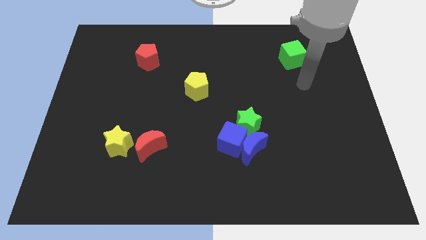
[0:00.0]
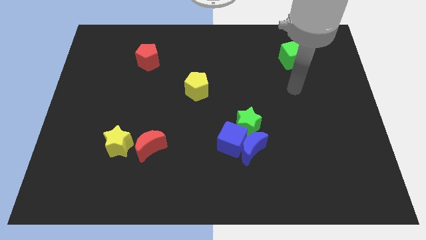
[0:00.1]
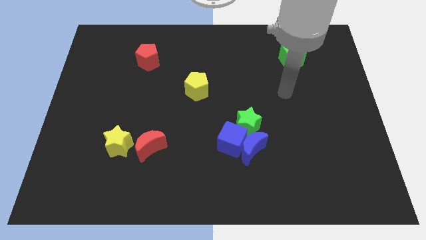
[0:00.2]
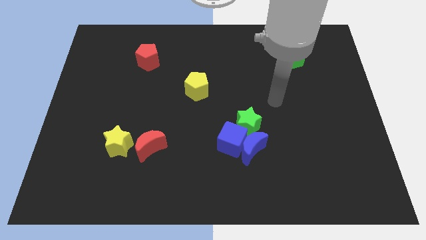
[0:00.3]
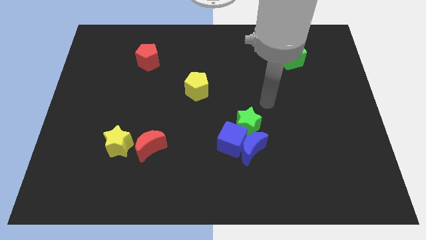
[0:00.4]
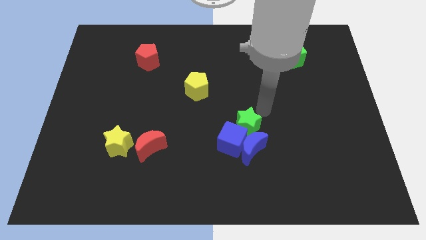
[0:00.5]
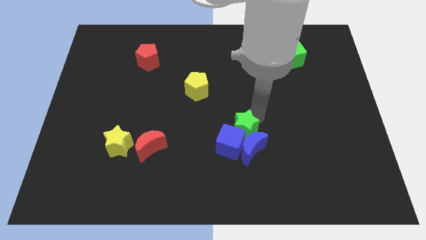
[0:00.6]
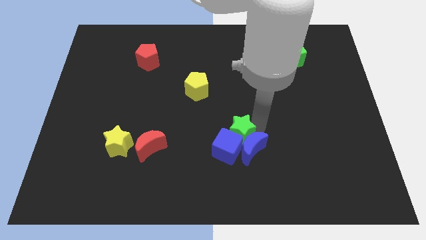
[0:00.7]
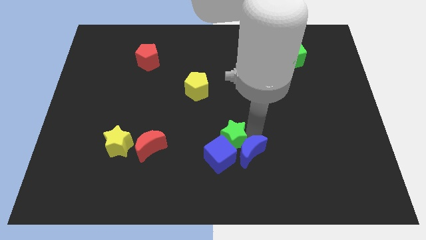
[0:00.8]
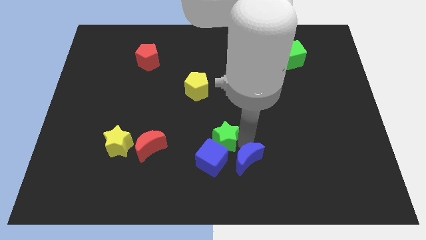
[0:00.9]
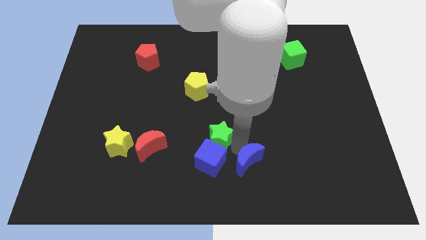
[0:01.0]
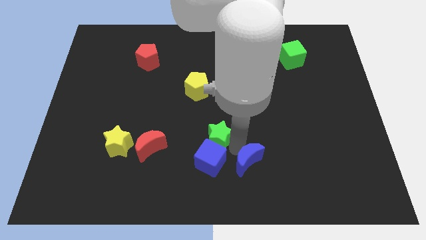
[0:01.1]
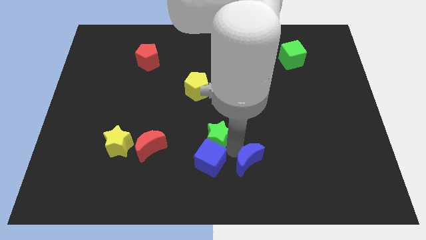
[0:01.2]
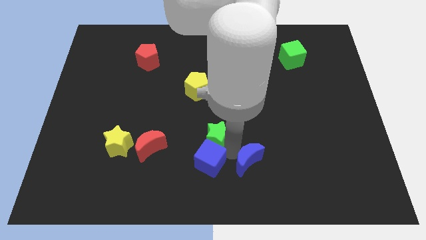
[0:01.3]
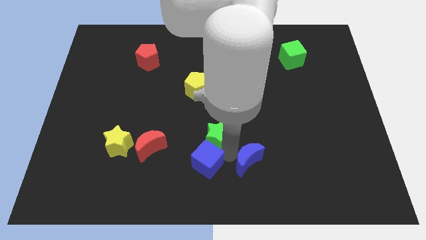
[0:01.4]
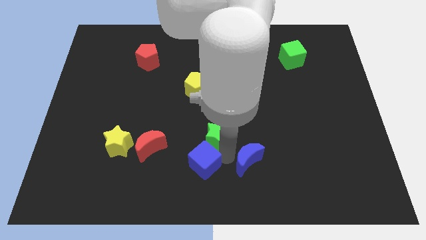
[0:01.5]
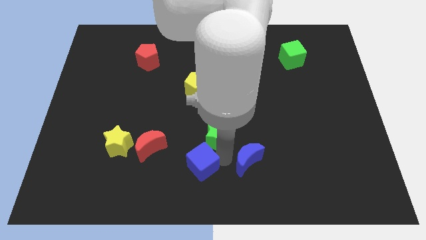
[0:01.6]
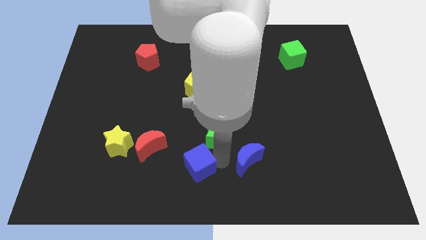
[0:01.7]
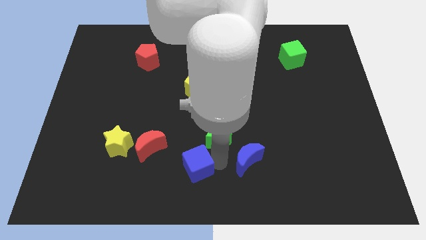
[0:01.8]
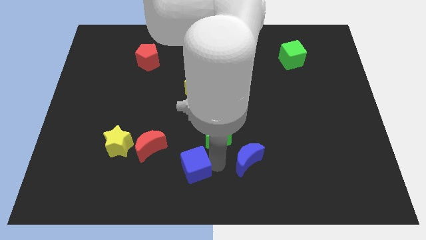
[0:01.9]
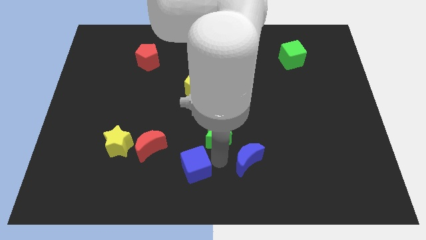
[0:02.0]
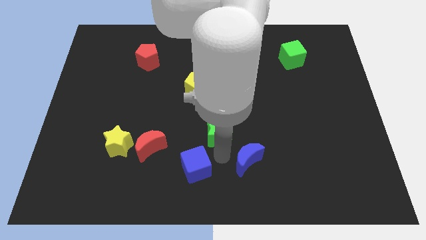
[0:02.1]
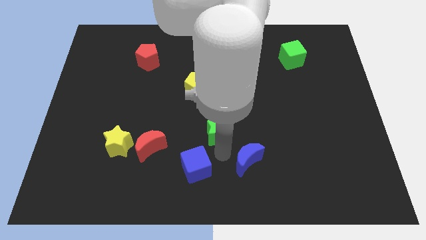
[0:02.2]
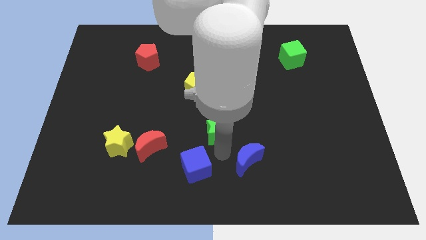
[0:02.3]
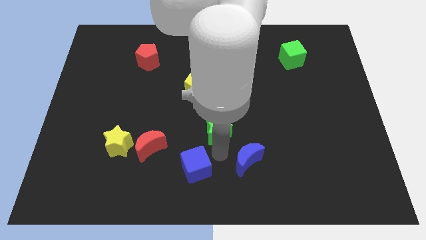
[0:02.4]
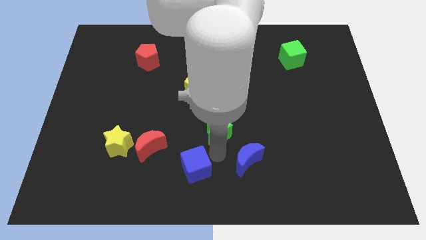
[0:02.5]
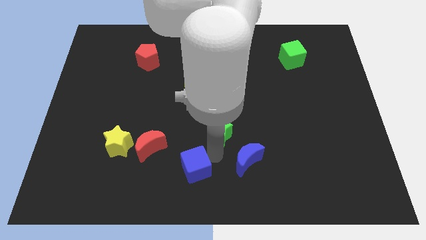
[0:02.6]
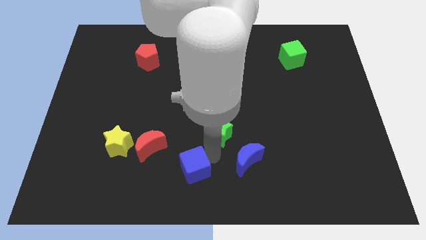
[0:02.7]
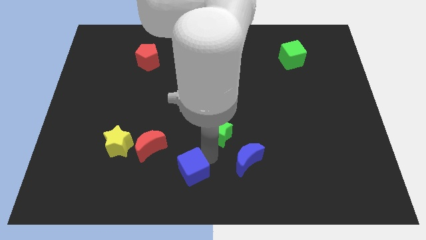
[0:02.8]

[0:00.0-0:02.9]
pull the blue cube apart from the blue moon and green star

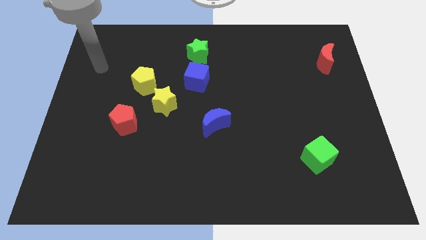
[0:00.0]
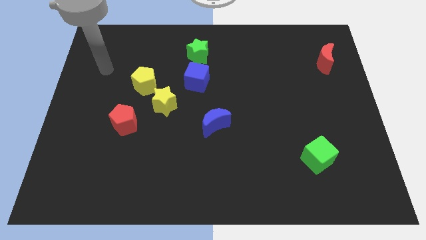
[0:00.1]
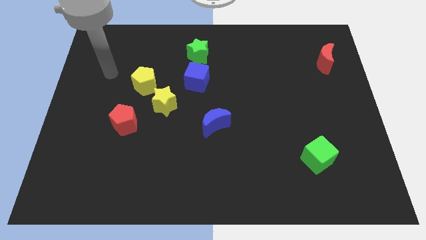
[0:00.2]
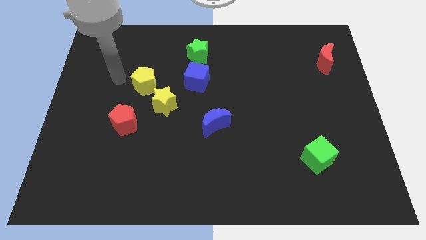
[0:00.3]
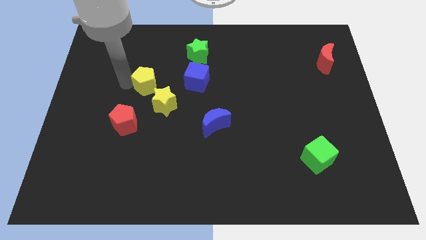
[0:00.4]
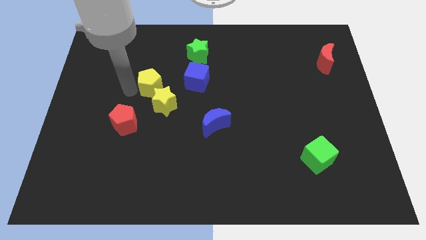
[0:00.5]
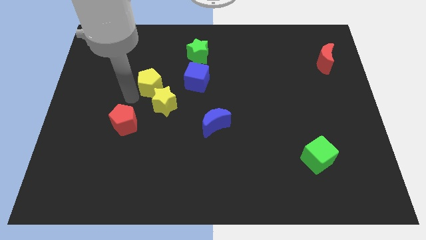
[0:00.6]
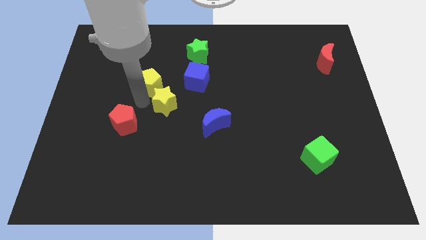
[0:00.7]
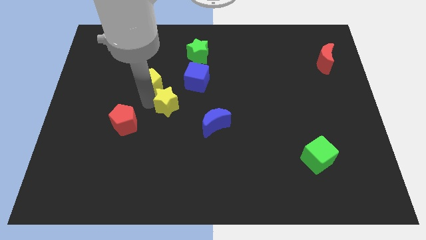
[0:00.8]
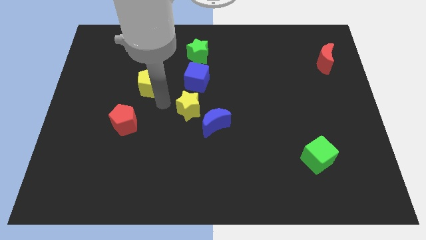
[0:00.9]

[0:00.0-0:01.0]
pull the yellow pentagon apart from the yellow star

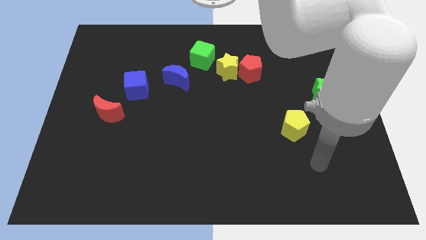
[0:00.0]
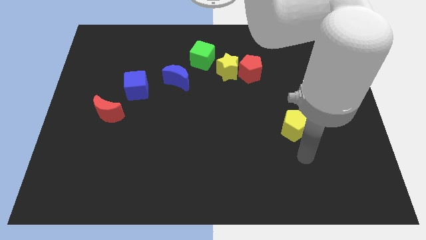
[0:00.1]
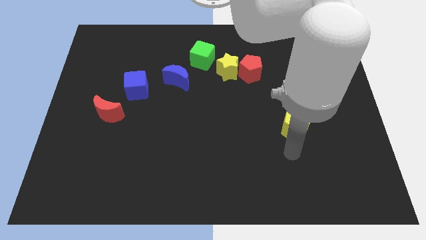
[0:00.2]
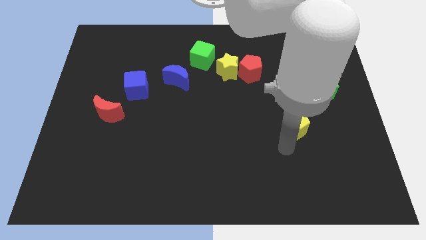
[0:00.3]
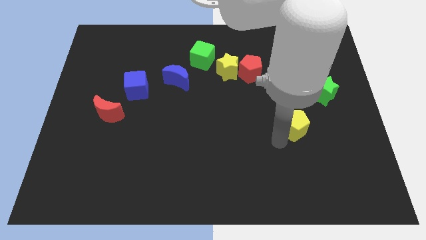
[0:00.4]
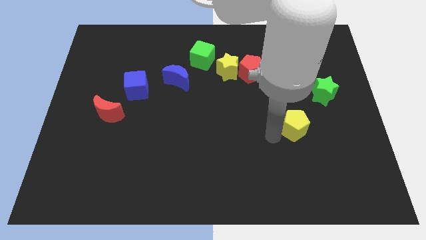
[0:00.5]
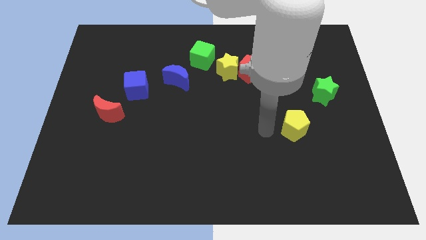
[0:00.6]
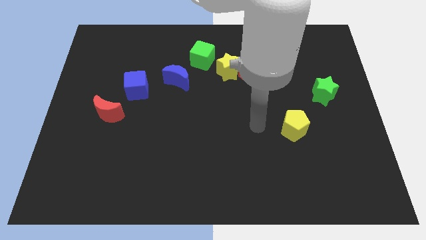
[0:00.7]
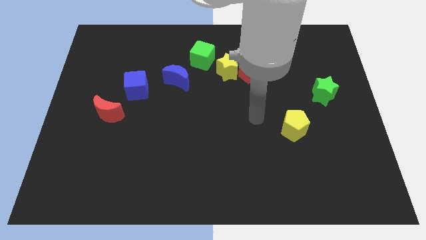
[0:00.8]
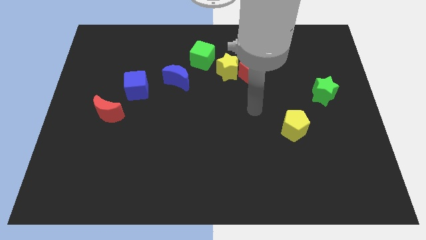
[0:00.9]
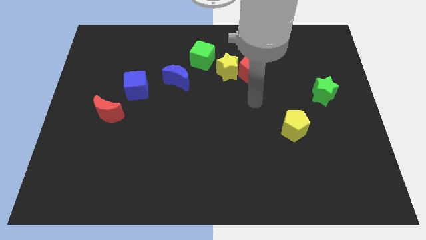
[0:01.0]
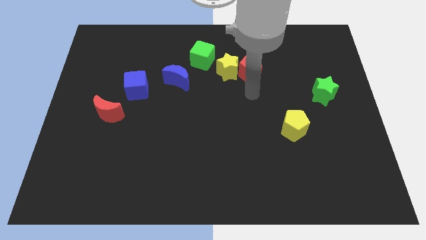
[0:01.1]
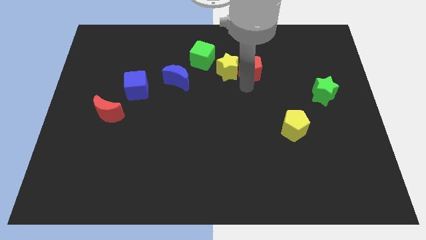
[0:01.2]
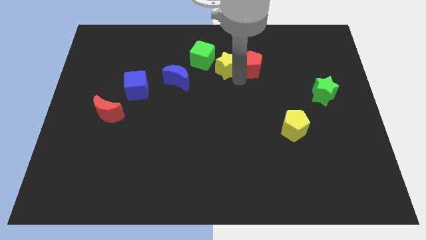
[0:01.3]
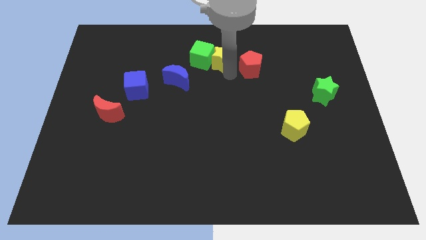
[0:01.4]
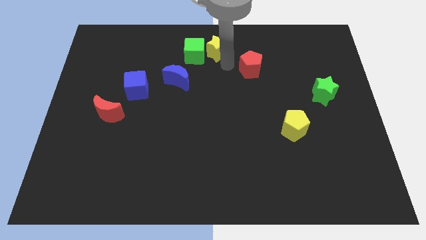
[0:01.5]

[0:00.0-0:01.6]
move the red pentagon away from the yellow star

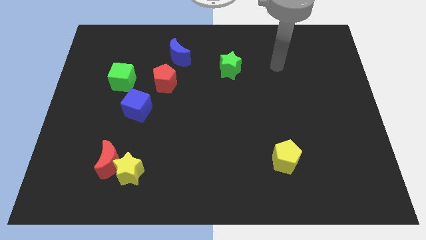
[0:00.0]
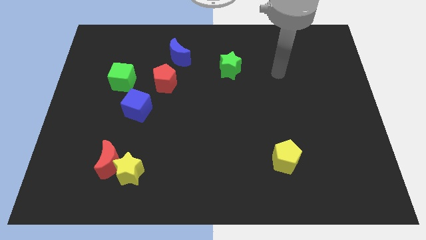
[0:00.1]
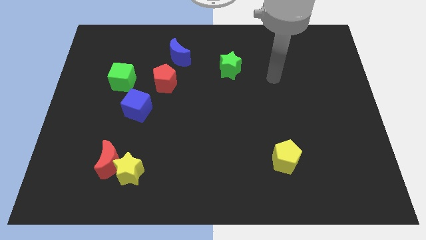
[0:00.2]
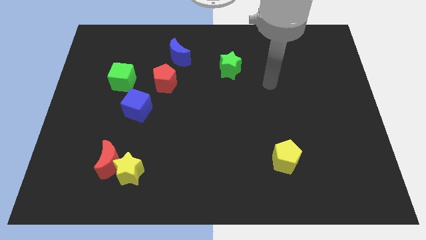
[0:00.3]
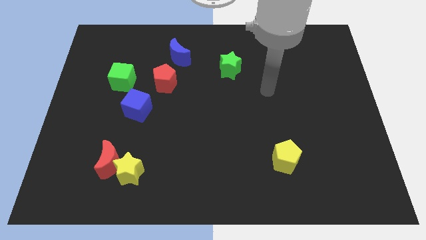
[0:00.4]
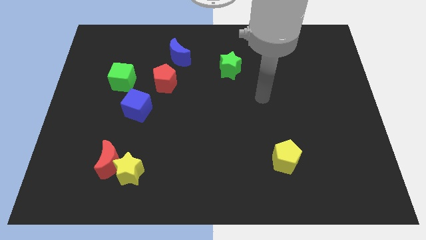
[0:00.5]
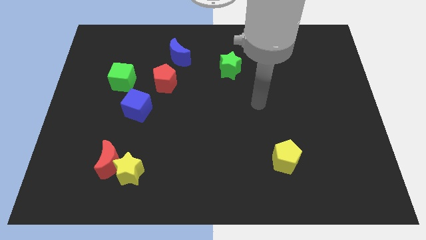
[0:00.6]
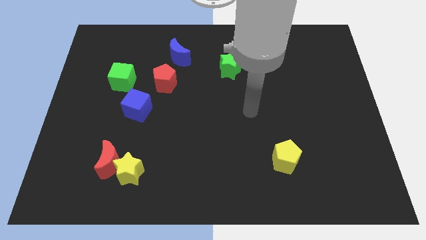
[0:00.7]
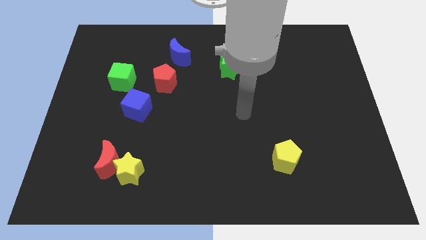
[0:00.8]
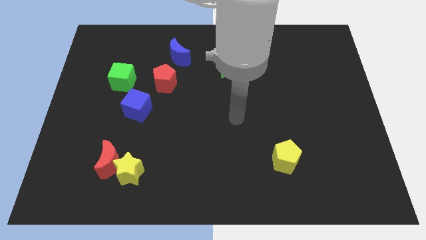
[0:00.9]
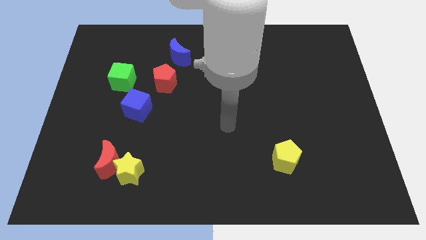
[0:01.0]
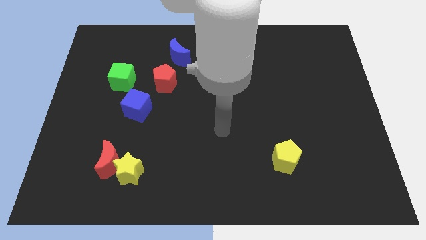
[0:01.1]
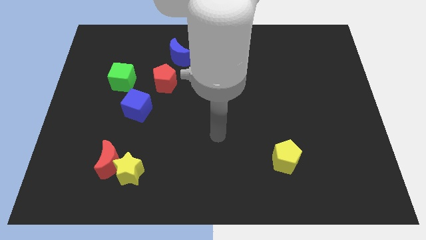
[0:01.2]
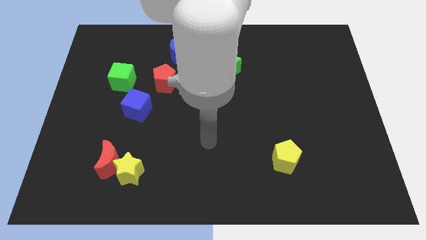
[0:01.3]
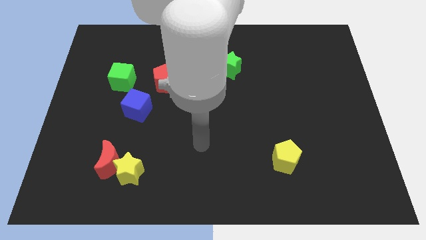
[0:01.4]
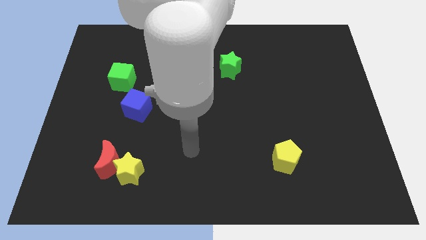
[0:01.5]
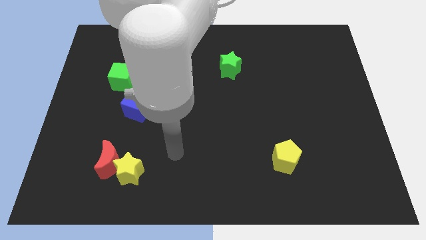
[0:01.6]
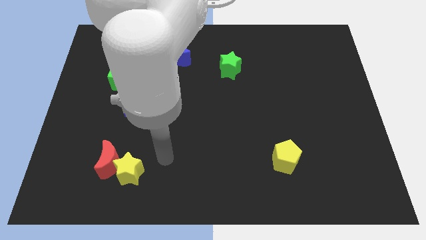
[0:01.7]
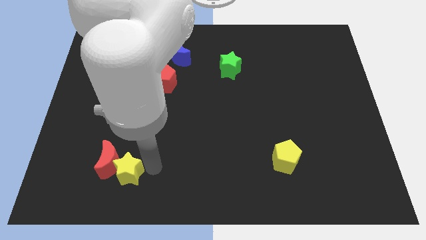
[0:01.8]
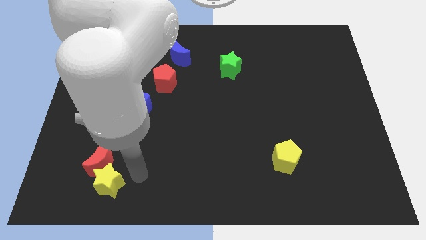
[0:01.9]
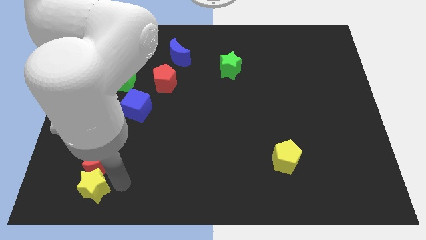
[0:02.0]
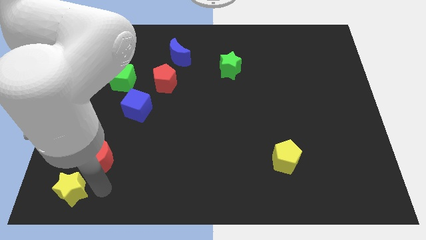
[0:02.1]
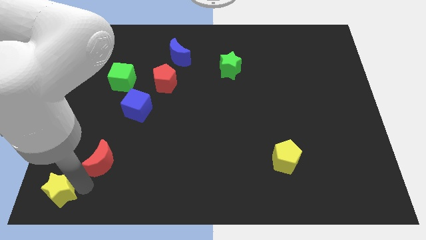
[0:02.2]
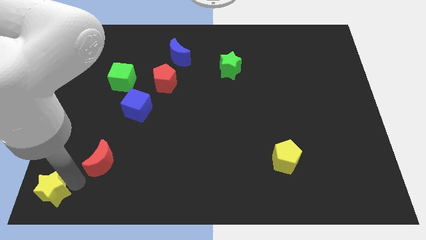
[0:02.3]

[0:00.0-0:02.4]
pull the red moon apart from the yellow star

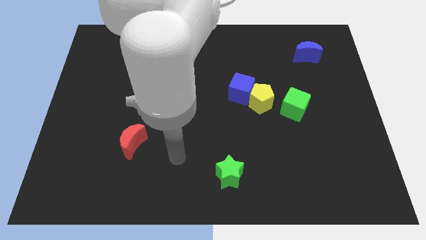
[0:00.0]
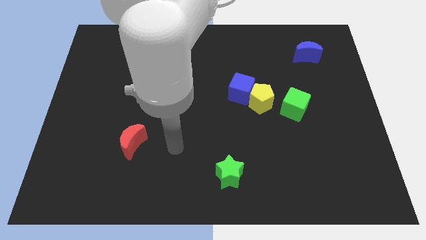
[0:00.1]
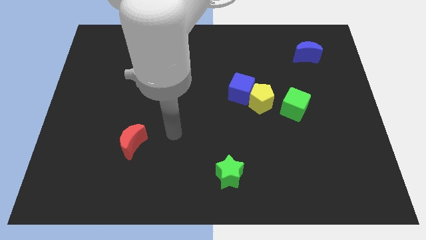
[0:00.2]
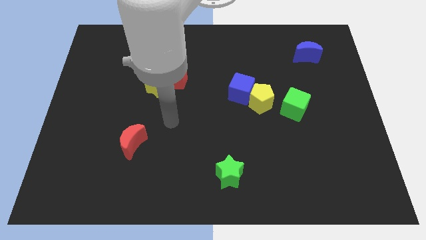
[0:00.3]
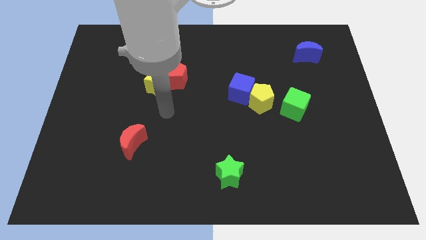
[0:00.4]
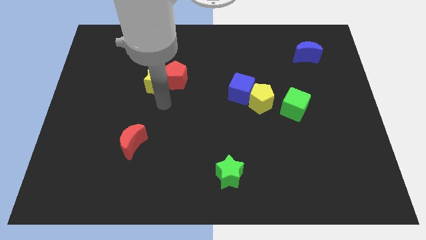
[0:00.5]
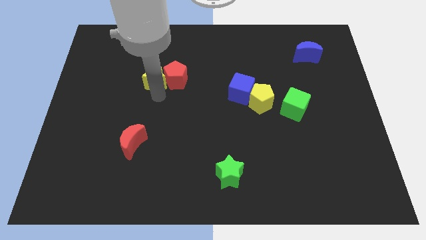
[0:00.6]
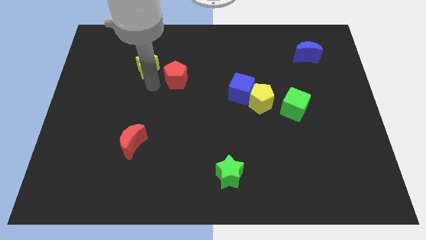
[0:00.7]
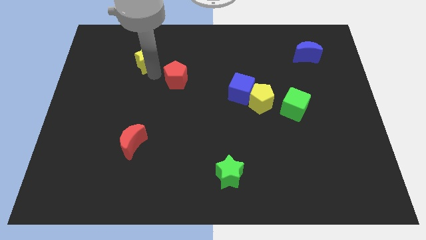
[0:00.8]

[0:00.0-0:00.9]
separate the red pentagon from the yellow star

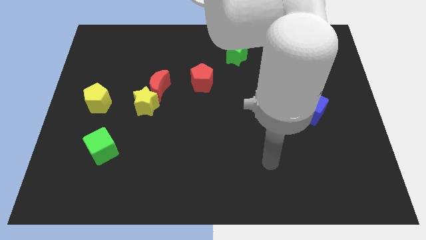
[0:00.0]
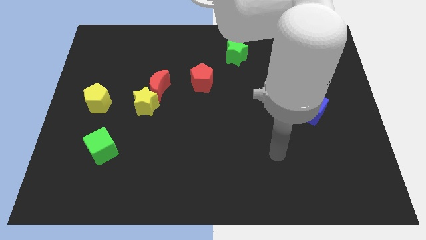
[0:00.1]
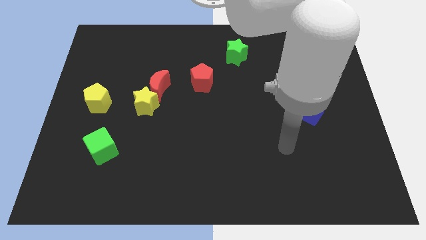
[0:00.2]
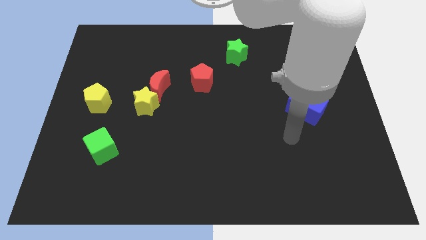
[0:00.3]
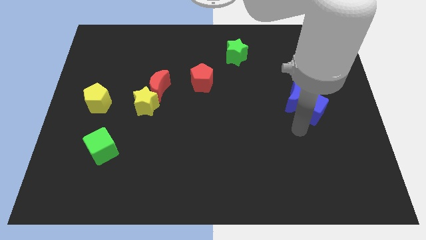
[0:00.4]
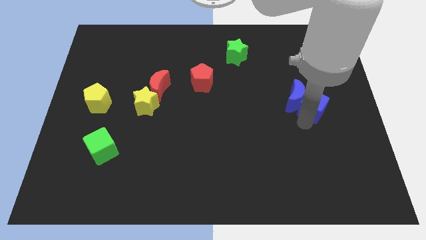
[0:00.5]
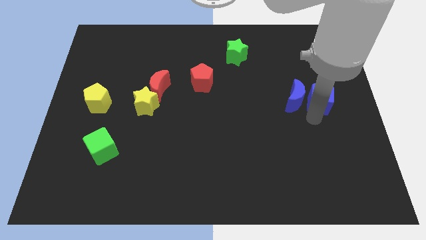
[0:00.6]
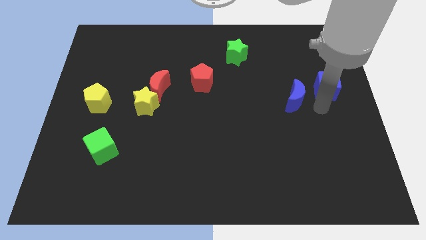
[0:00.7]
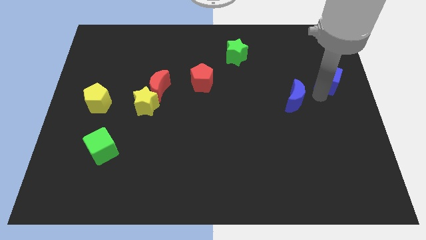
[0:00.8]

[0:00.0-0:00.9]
move the blue moon away from the blue cube
